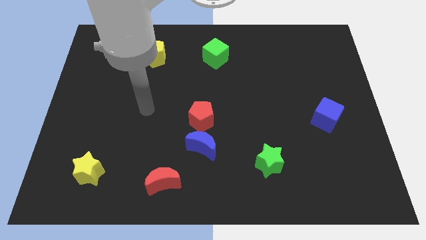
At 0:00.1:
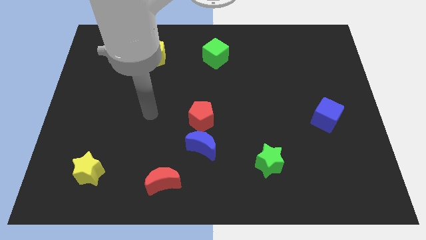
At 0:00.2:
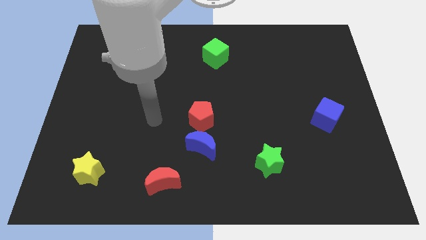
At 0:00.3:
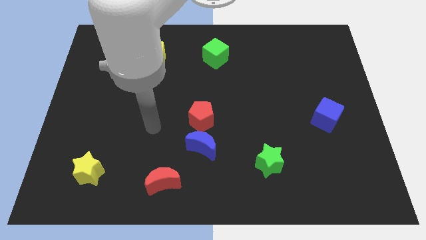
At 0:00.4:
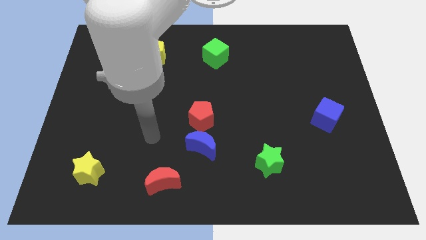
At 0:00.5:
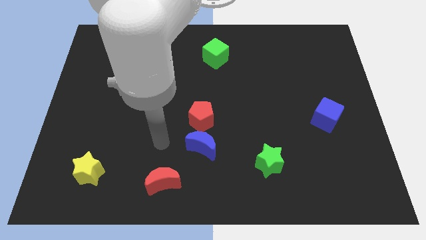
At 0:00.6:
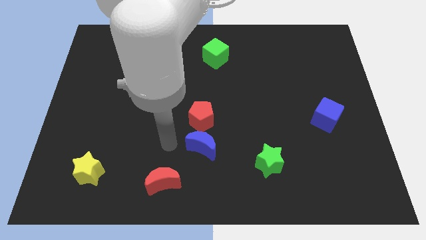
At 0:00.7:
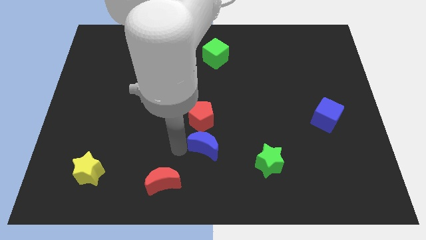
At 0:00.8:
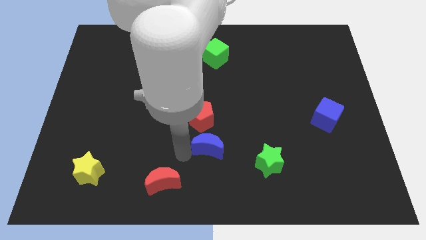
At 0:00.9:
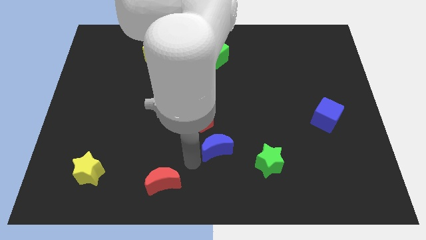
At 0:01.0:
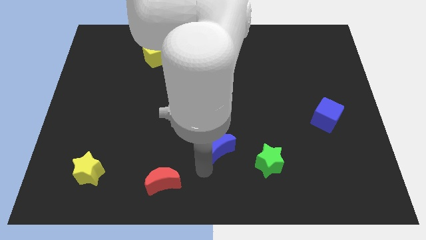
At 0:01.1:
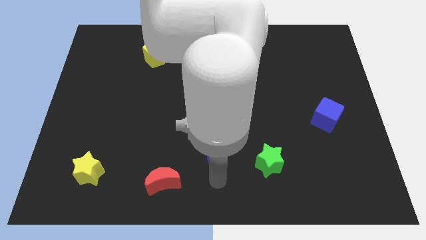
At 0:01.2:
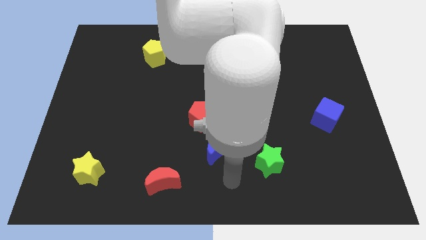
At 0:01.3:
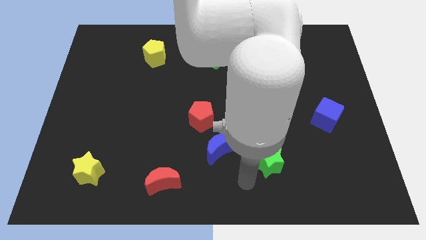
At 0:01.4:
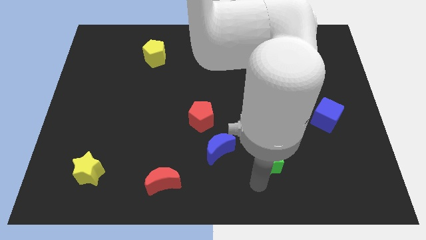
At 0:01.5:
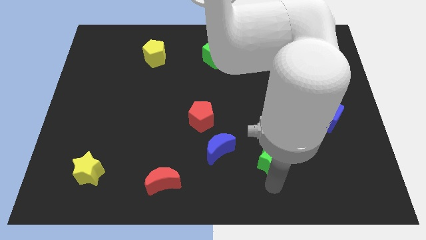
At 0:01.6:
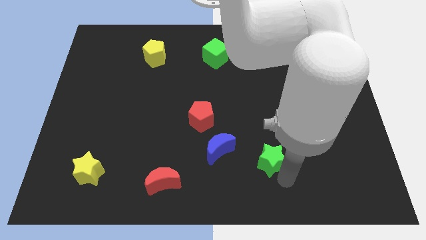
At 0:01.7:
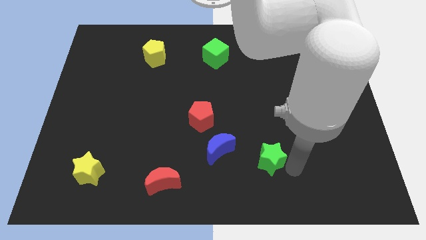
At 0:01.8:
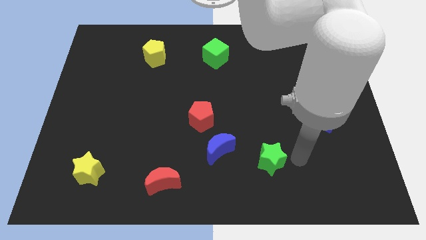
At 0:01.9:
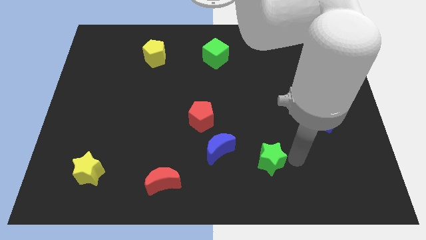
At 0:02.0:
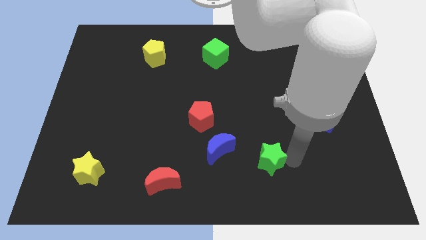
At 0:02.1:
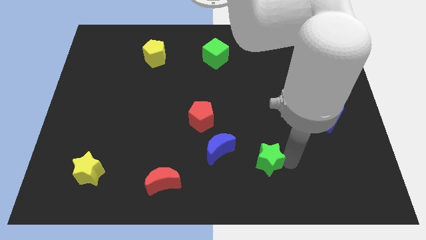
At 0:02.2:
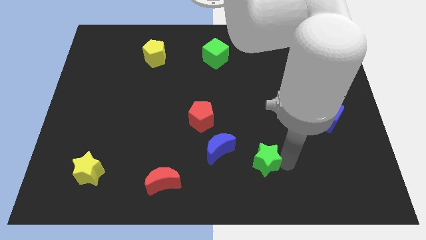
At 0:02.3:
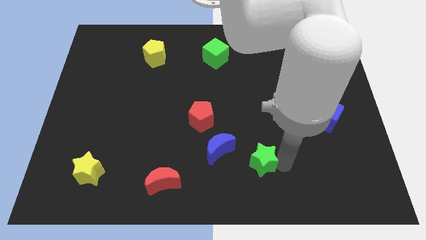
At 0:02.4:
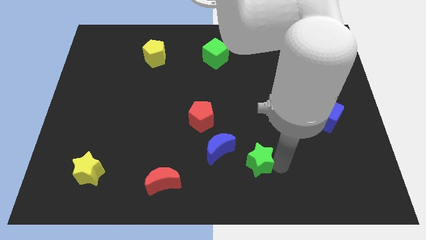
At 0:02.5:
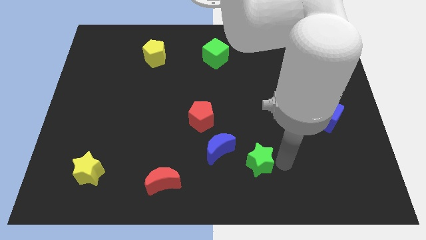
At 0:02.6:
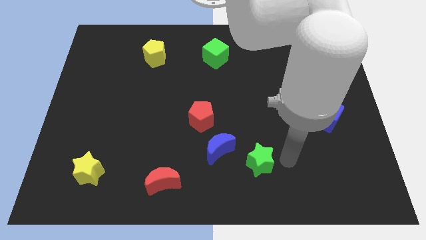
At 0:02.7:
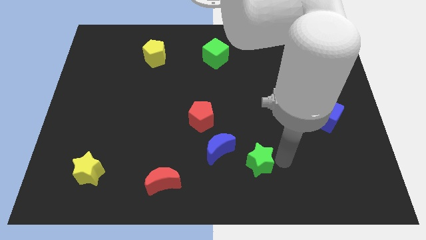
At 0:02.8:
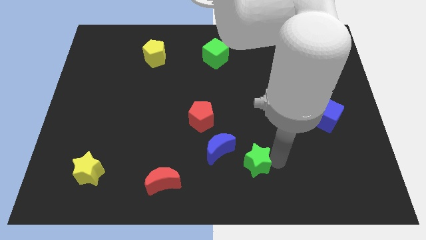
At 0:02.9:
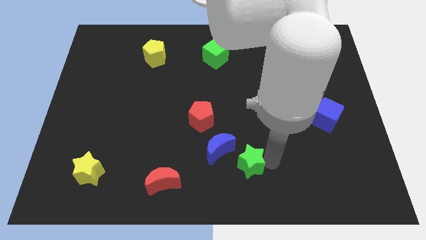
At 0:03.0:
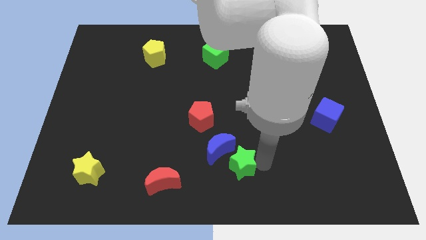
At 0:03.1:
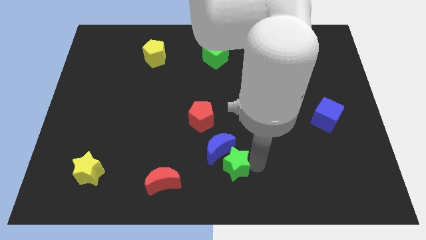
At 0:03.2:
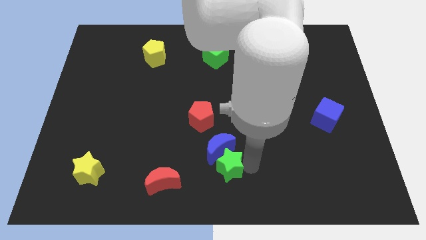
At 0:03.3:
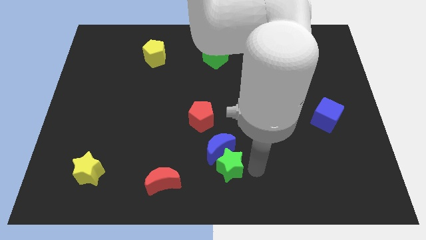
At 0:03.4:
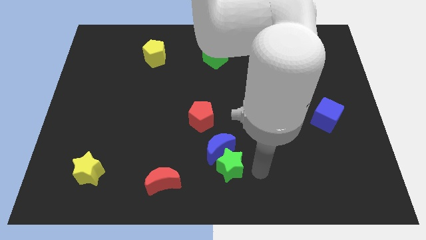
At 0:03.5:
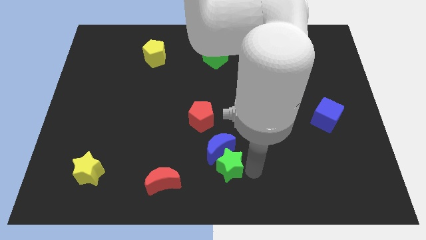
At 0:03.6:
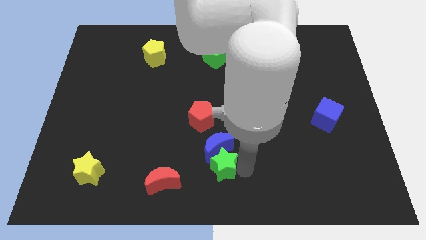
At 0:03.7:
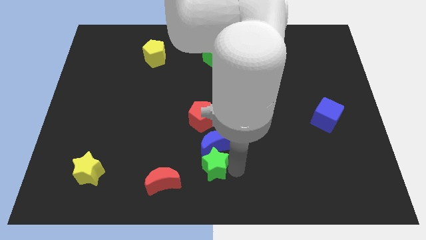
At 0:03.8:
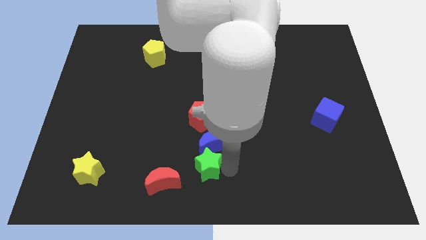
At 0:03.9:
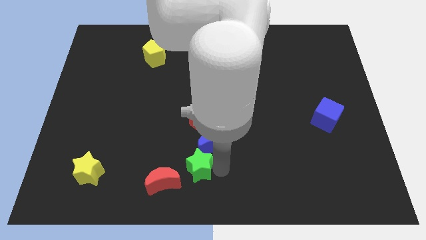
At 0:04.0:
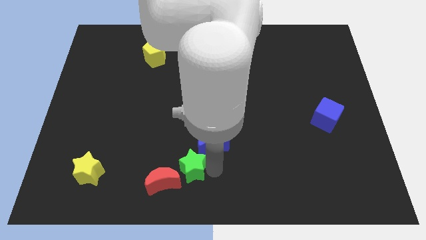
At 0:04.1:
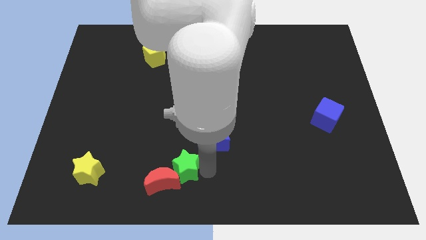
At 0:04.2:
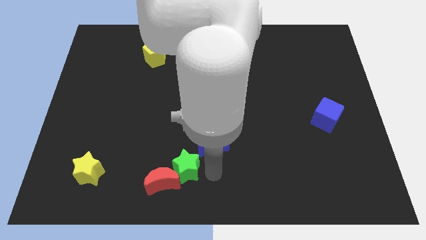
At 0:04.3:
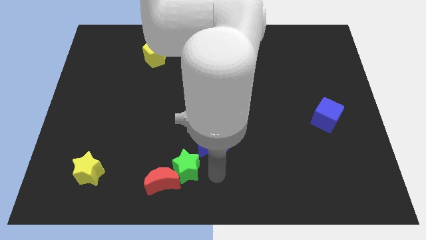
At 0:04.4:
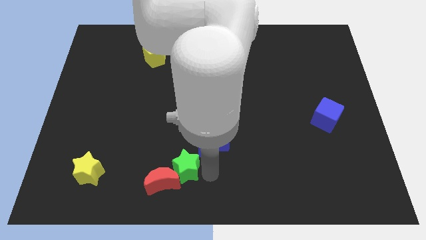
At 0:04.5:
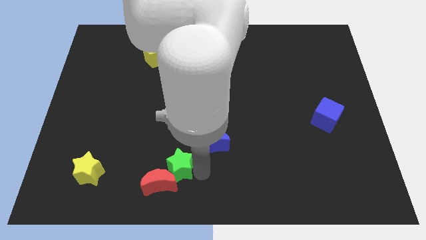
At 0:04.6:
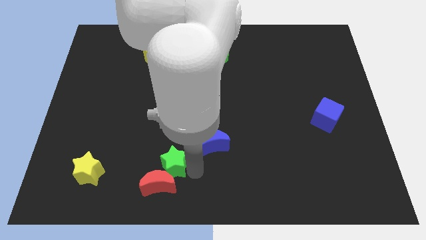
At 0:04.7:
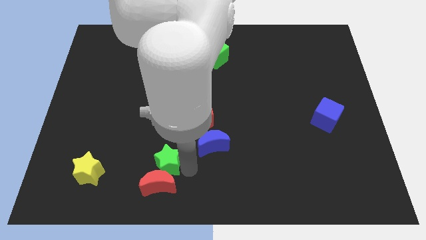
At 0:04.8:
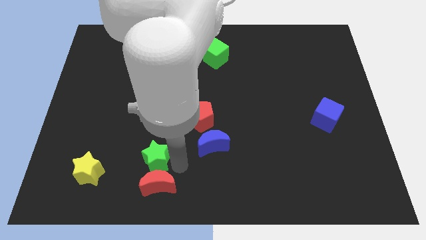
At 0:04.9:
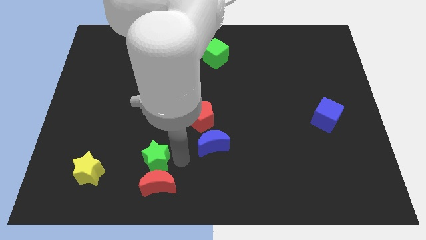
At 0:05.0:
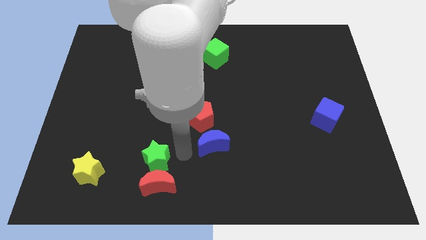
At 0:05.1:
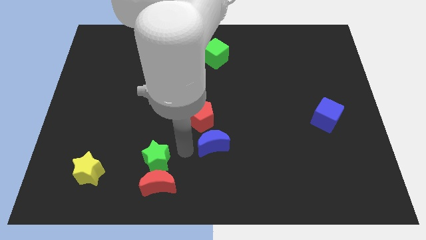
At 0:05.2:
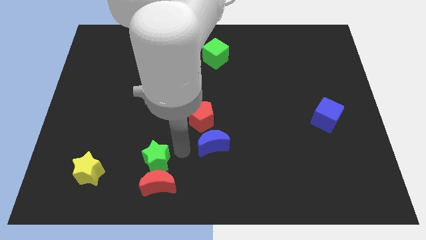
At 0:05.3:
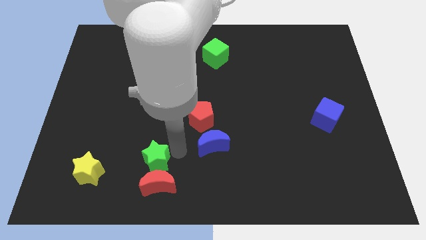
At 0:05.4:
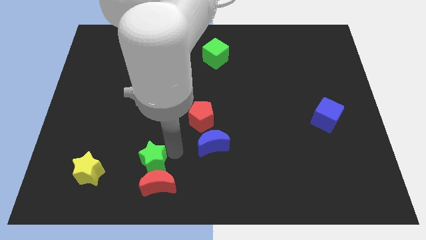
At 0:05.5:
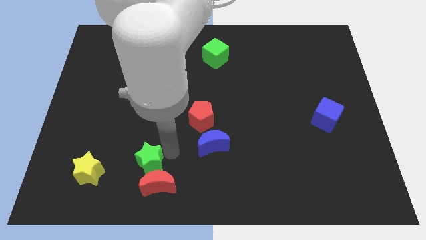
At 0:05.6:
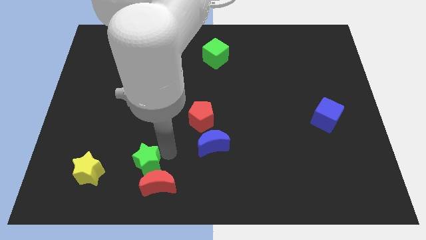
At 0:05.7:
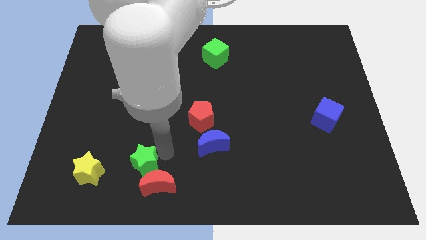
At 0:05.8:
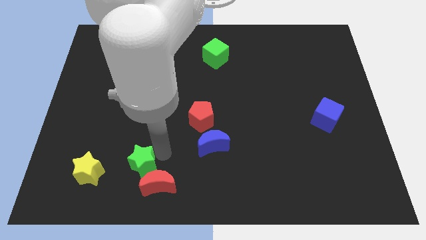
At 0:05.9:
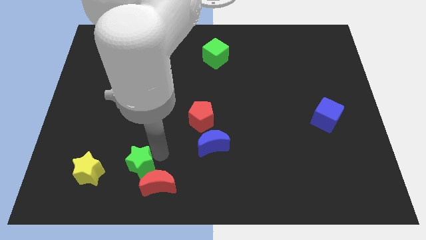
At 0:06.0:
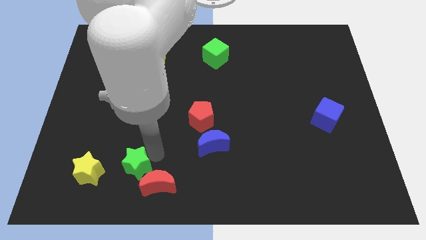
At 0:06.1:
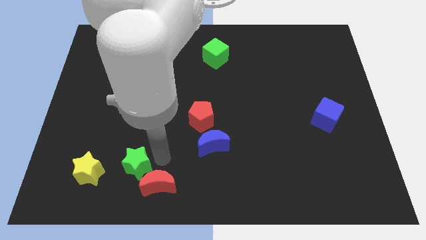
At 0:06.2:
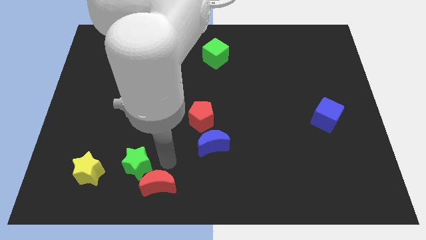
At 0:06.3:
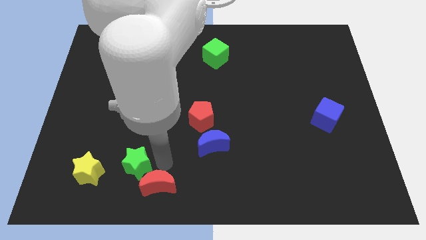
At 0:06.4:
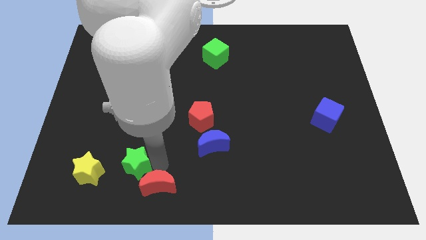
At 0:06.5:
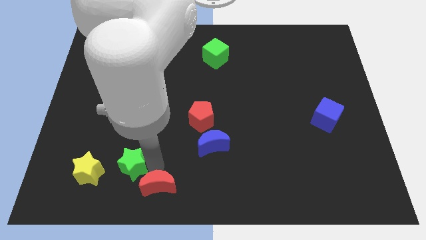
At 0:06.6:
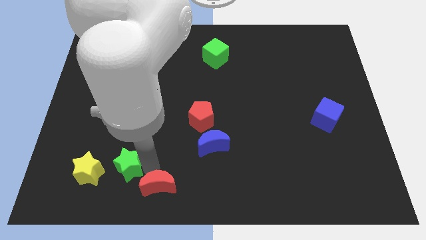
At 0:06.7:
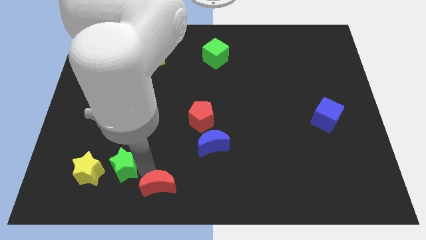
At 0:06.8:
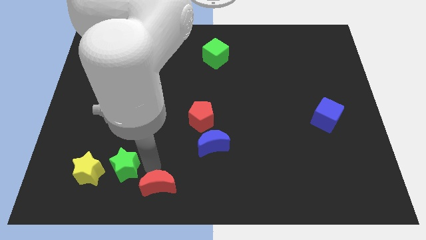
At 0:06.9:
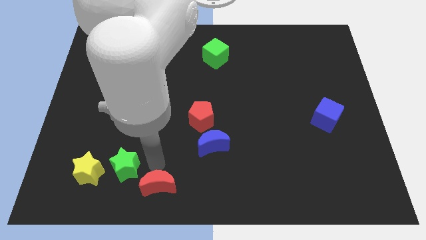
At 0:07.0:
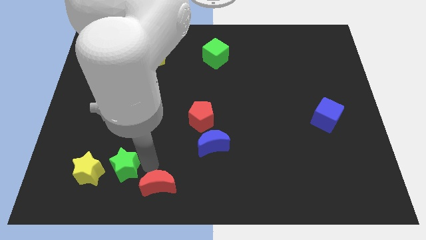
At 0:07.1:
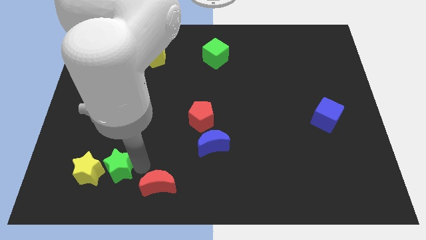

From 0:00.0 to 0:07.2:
move the green star towards the yellow star
